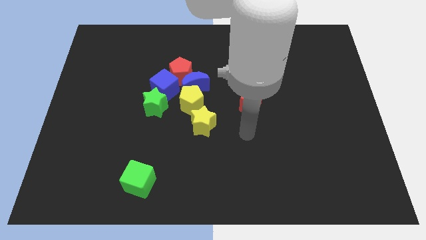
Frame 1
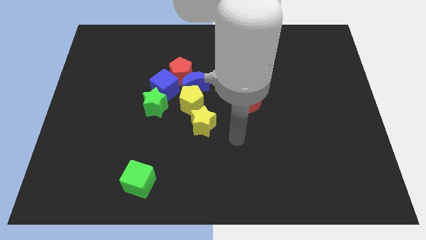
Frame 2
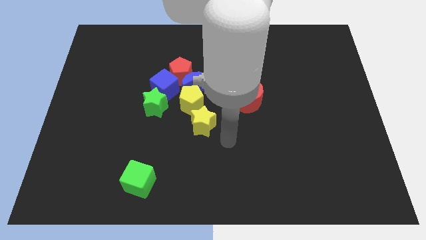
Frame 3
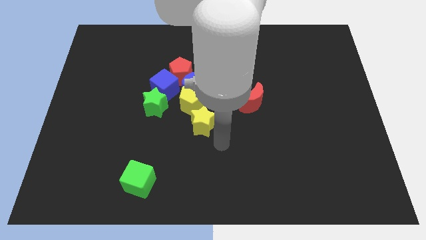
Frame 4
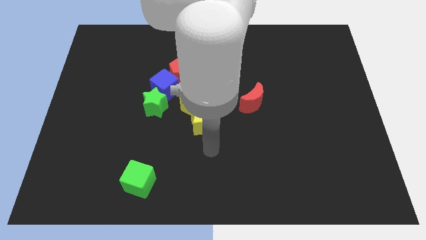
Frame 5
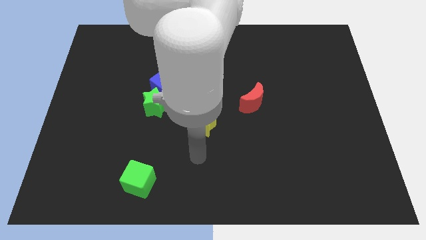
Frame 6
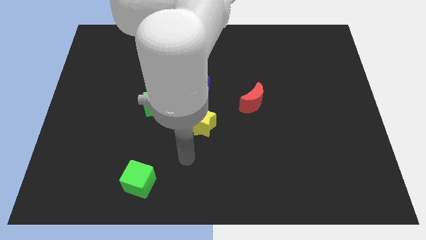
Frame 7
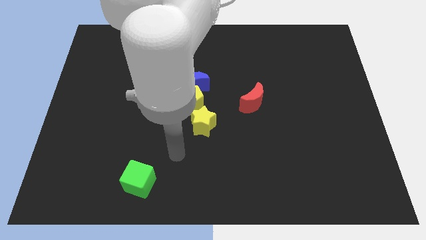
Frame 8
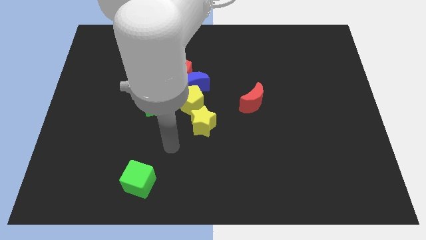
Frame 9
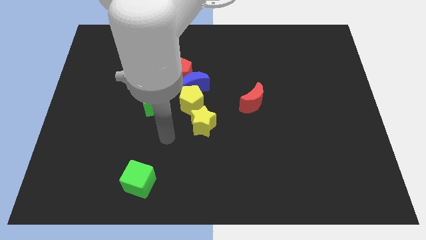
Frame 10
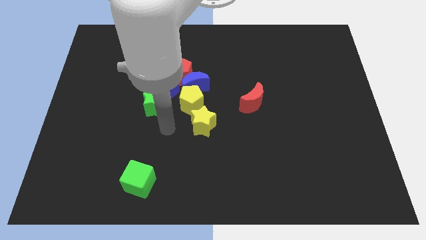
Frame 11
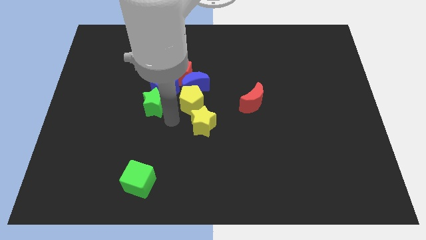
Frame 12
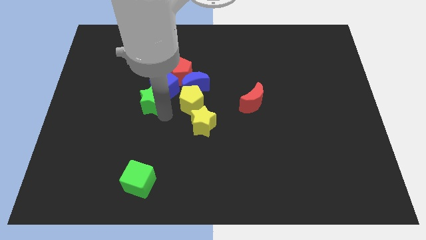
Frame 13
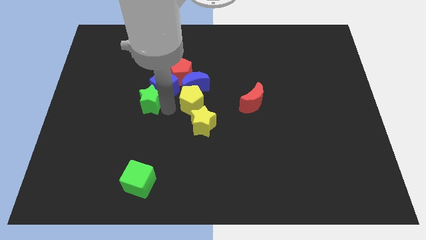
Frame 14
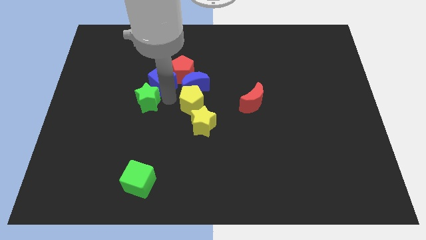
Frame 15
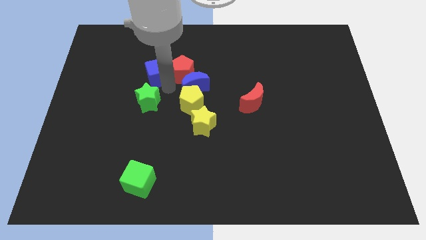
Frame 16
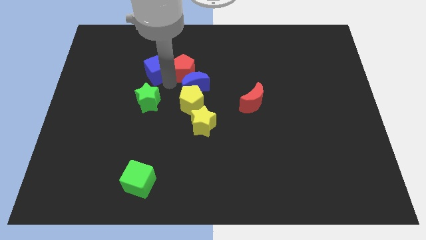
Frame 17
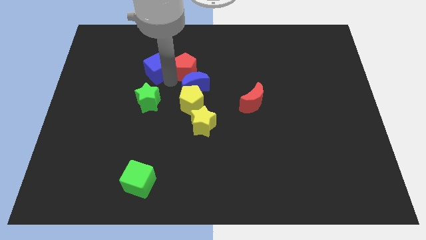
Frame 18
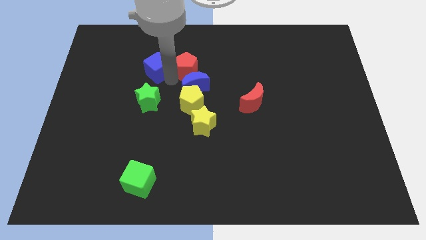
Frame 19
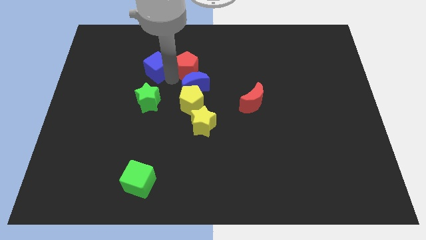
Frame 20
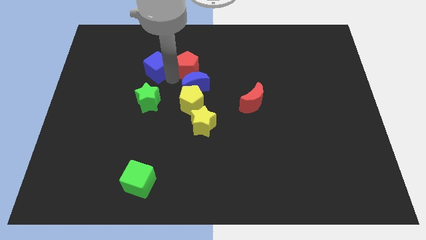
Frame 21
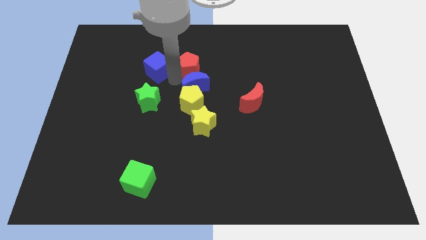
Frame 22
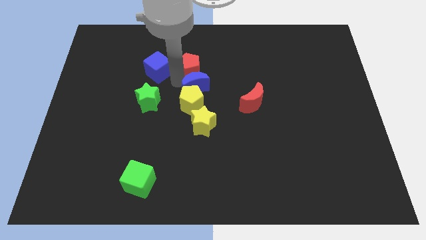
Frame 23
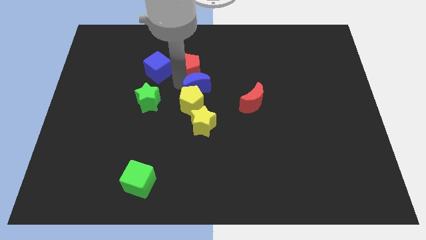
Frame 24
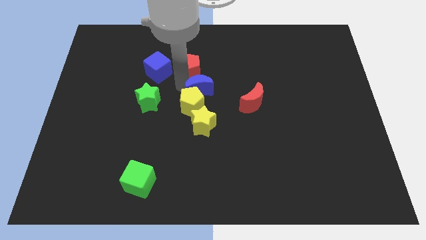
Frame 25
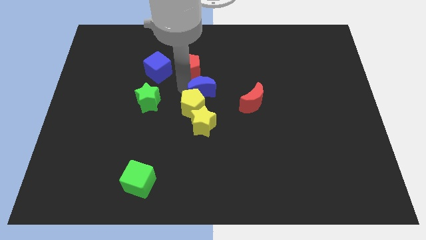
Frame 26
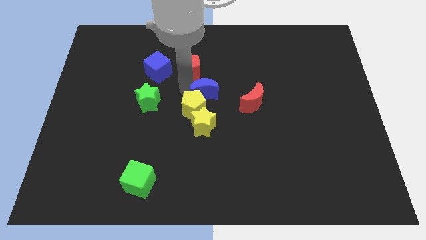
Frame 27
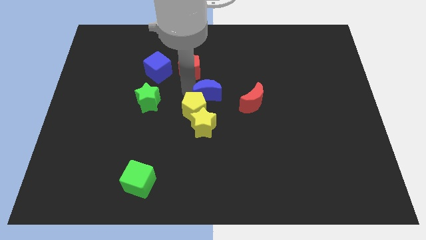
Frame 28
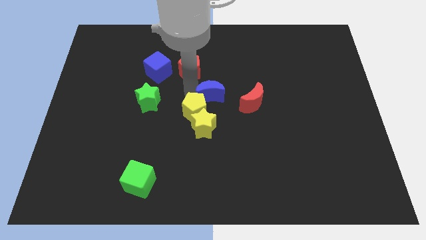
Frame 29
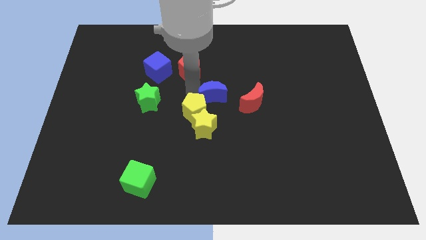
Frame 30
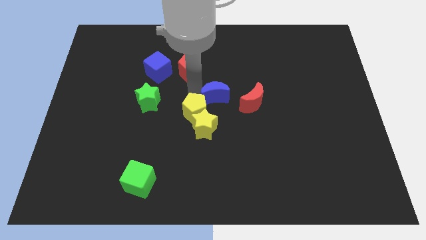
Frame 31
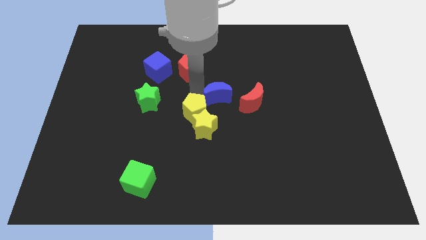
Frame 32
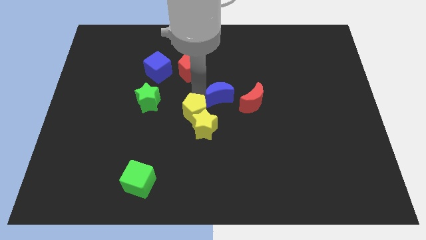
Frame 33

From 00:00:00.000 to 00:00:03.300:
move the blue moon away from the group of blocks

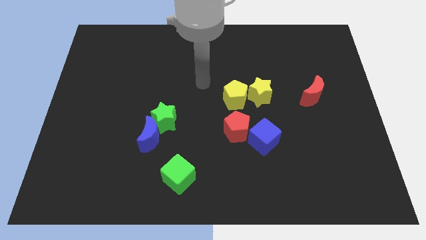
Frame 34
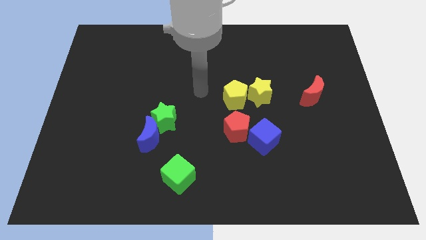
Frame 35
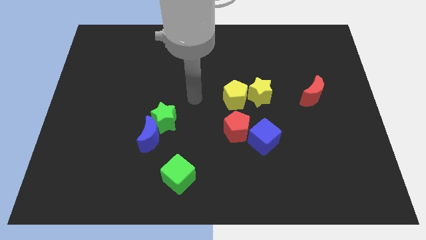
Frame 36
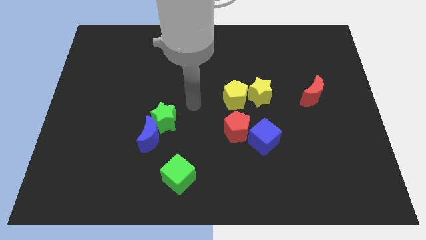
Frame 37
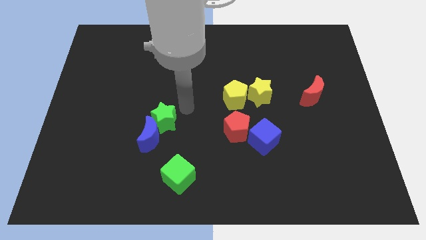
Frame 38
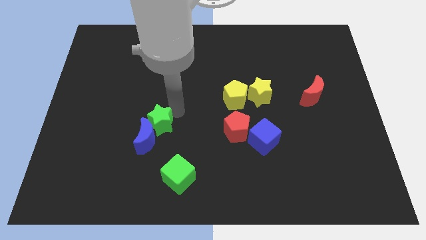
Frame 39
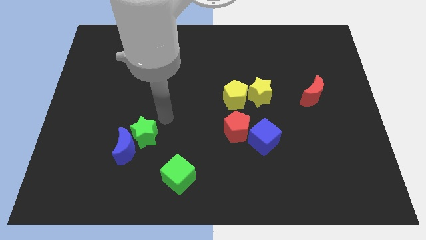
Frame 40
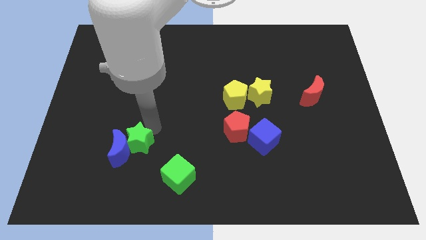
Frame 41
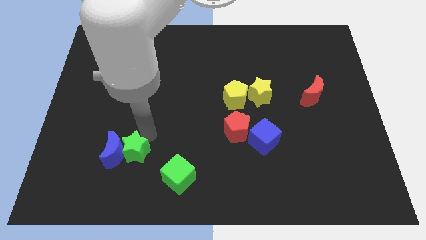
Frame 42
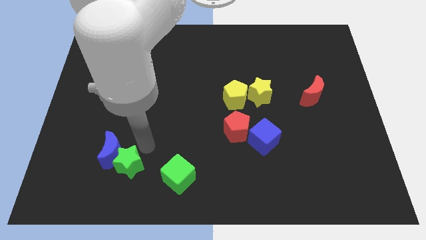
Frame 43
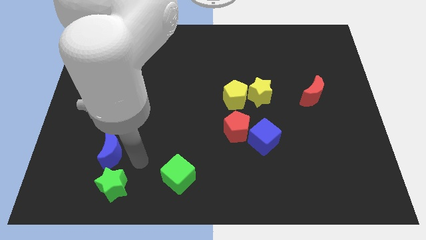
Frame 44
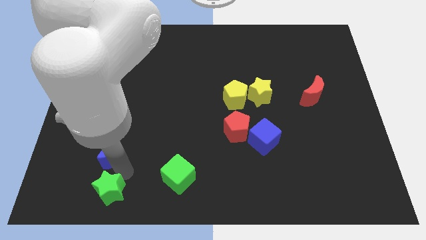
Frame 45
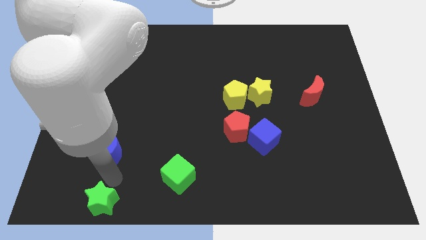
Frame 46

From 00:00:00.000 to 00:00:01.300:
move the blue moon away from the green star

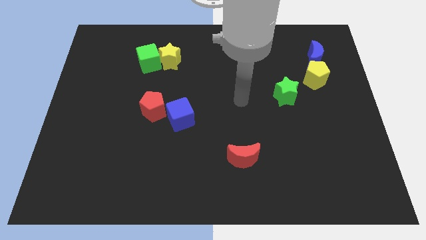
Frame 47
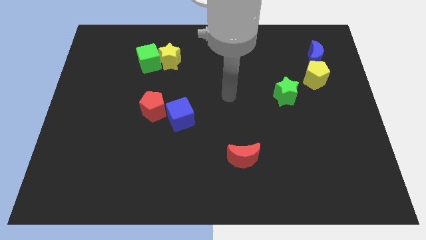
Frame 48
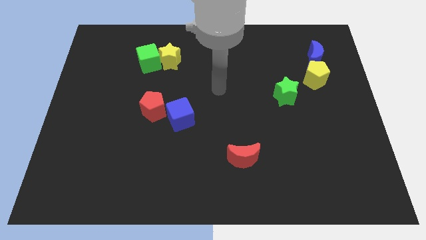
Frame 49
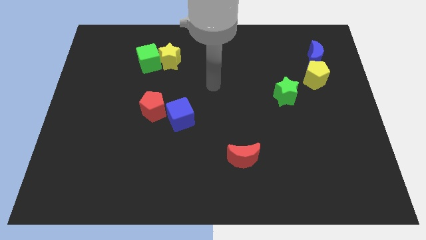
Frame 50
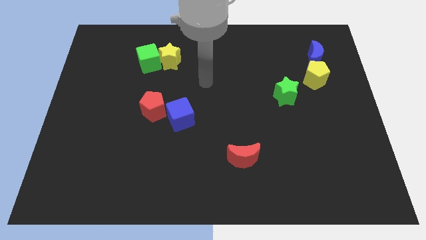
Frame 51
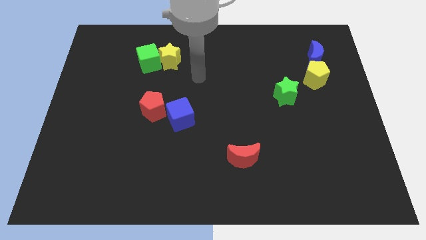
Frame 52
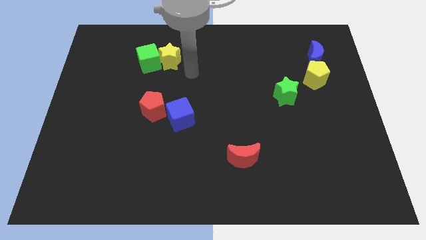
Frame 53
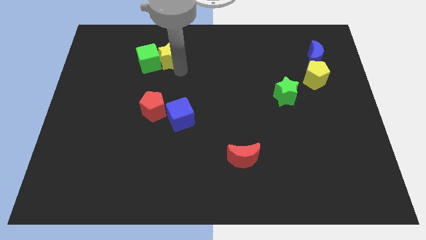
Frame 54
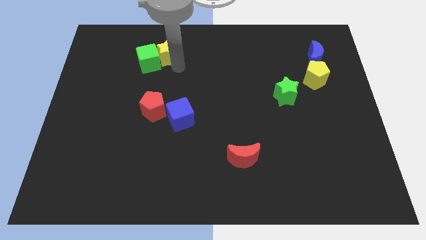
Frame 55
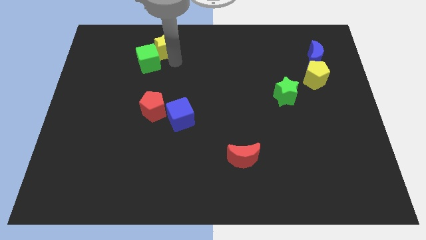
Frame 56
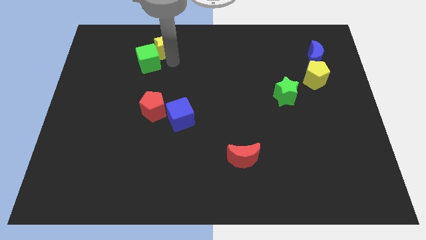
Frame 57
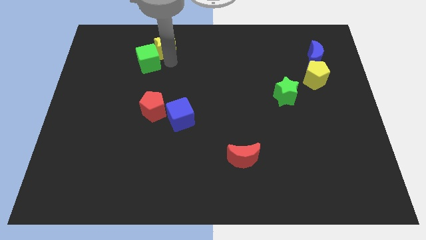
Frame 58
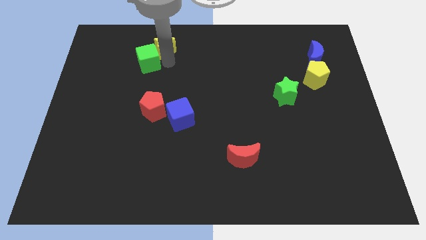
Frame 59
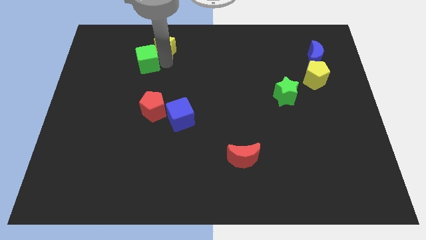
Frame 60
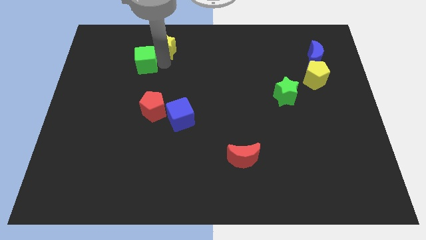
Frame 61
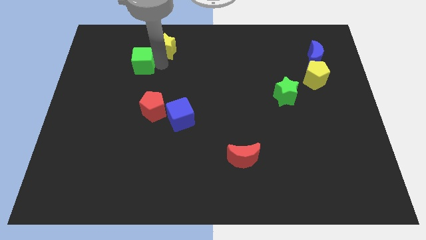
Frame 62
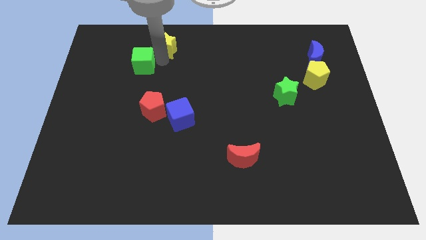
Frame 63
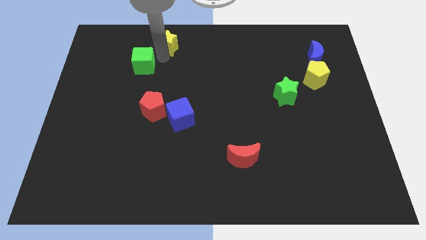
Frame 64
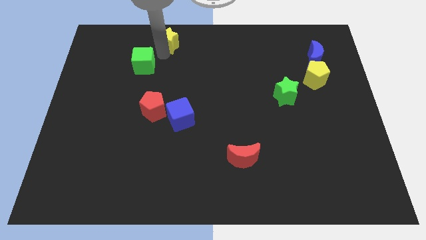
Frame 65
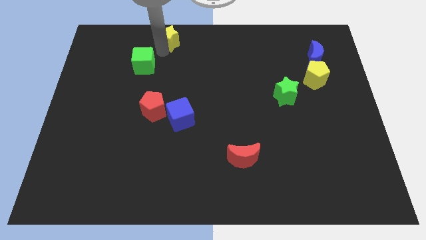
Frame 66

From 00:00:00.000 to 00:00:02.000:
pull the green cube apart from the yellow star

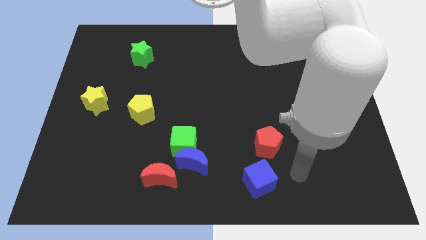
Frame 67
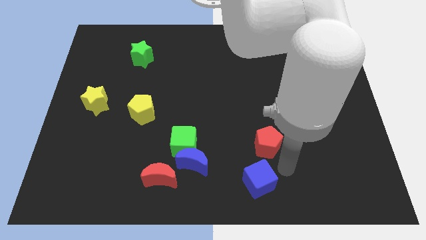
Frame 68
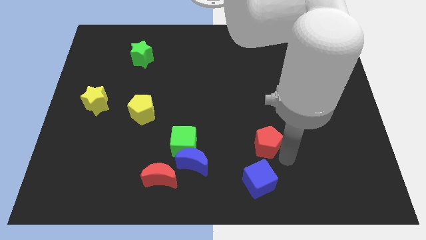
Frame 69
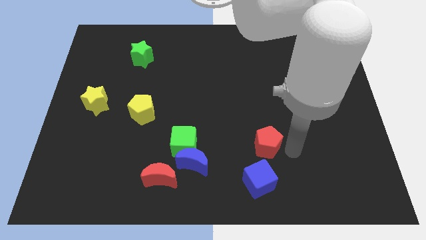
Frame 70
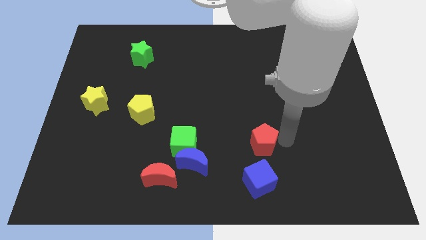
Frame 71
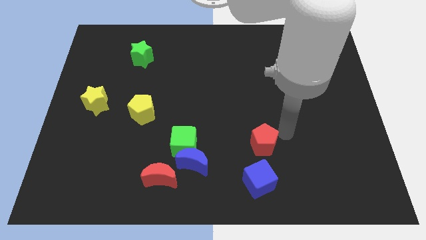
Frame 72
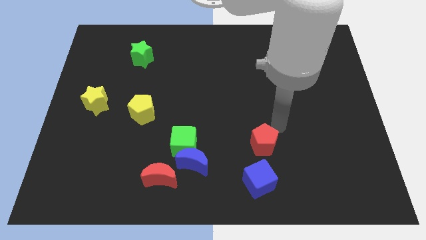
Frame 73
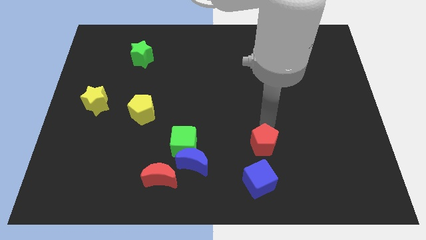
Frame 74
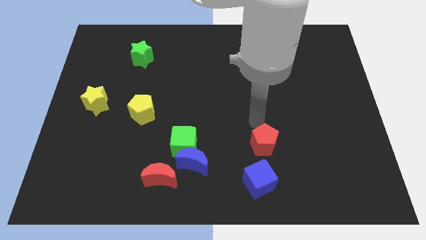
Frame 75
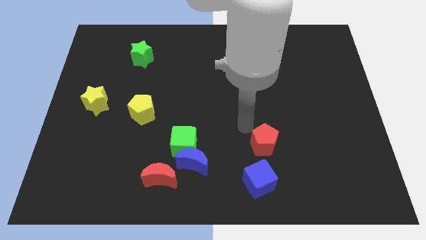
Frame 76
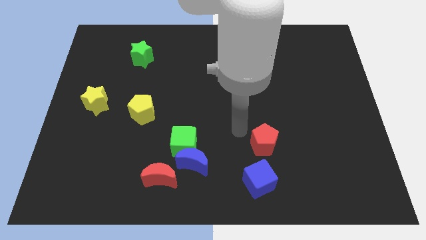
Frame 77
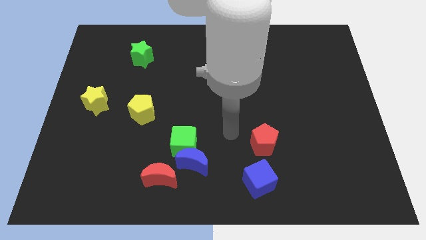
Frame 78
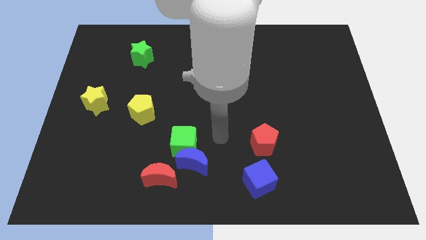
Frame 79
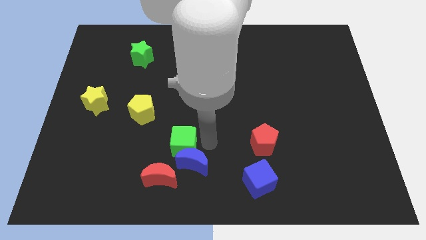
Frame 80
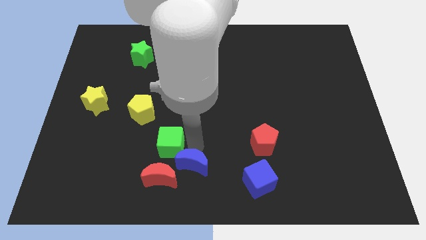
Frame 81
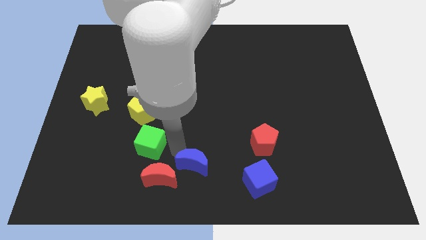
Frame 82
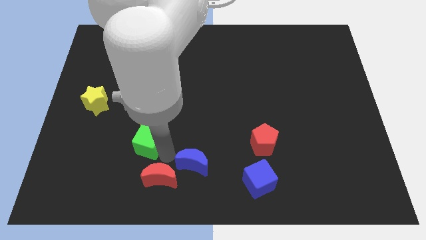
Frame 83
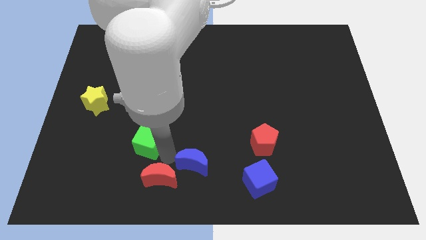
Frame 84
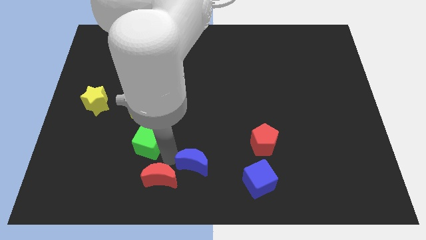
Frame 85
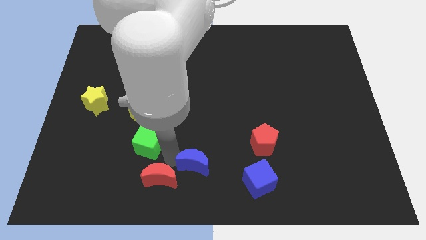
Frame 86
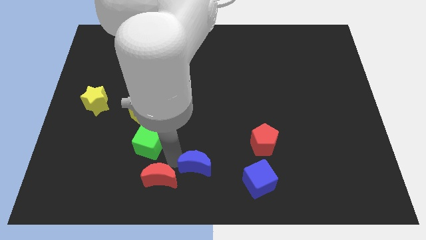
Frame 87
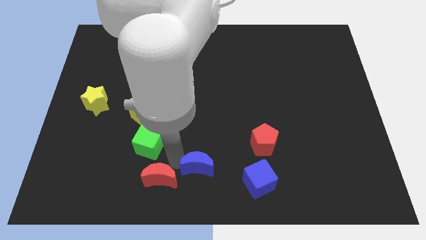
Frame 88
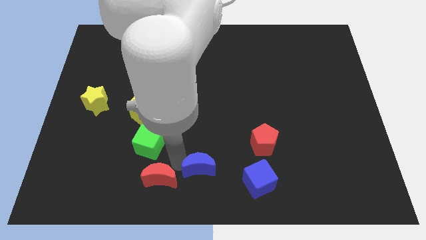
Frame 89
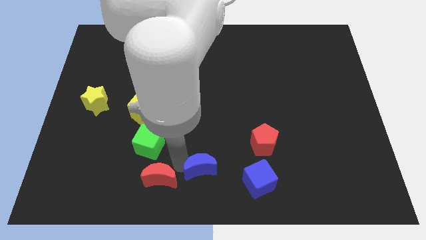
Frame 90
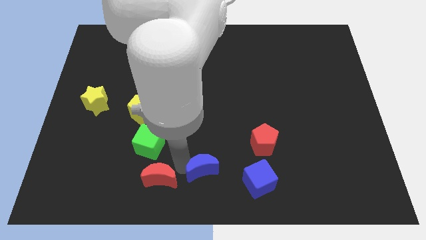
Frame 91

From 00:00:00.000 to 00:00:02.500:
move the blue moon away from the green cube and red moon

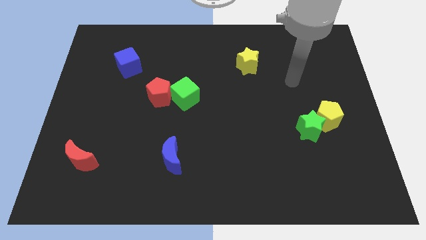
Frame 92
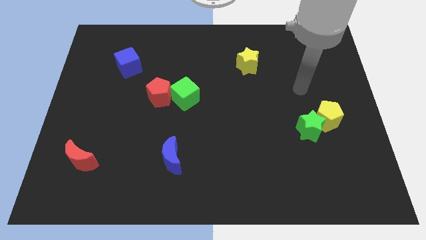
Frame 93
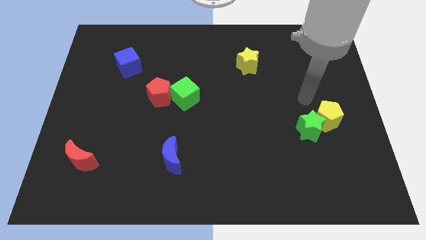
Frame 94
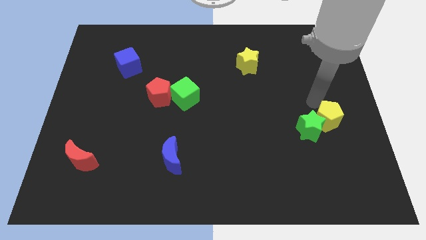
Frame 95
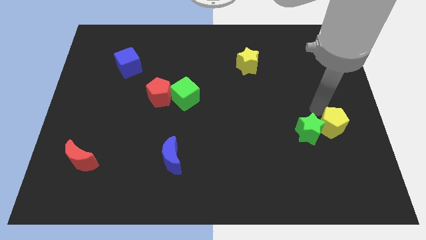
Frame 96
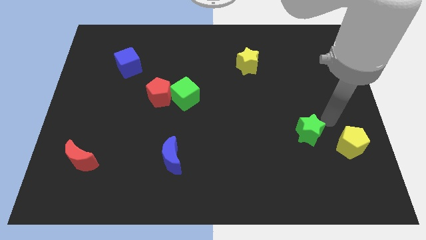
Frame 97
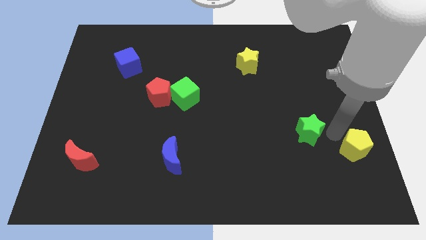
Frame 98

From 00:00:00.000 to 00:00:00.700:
pull the green star apart from the yellow pentagon
